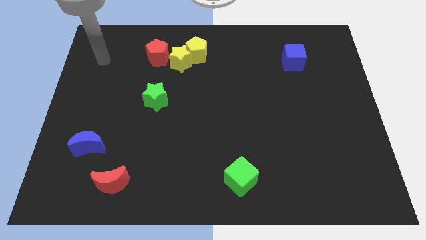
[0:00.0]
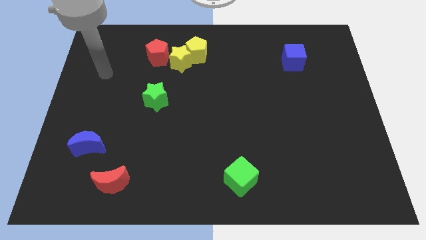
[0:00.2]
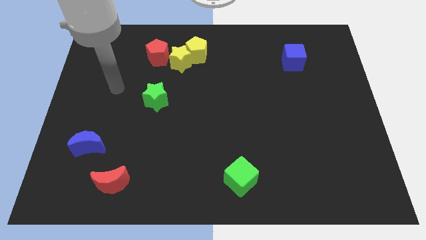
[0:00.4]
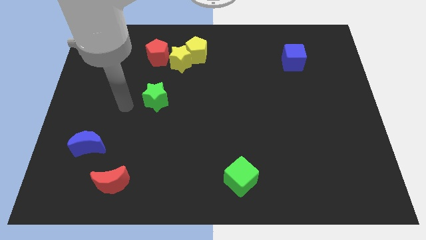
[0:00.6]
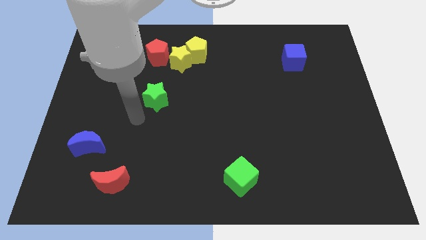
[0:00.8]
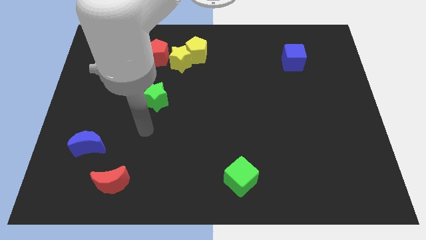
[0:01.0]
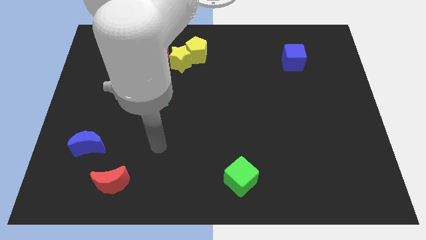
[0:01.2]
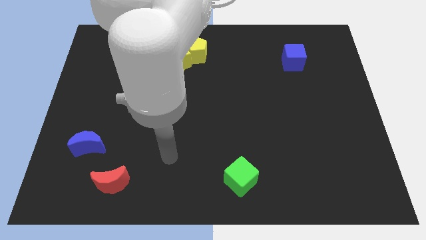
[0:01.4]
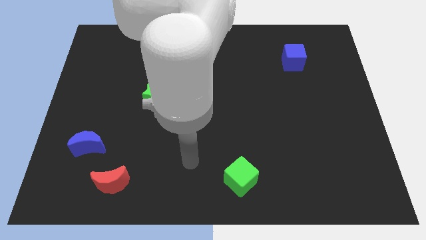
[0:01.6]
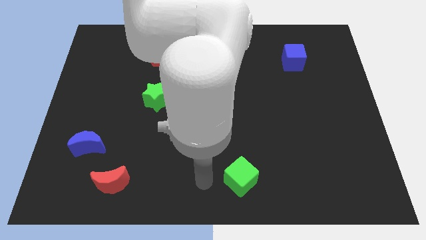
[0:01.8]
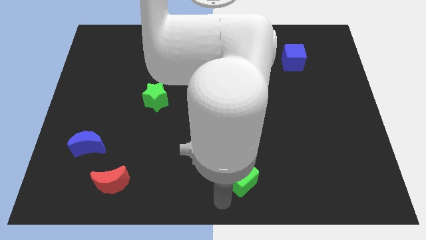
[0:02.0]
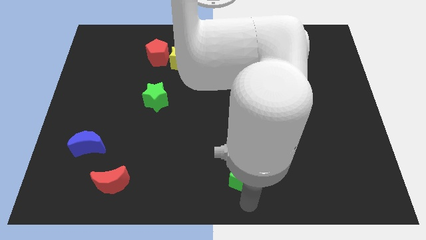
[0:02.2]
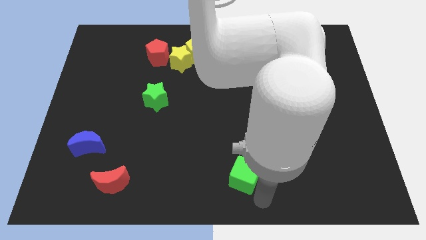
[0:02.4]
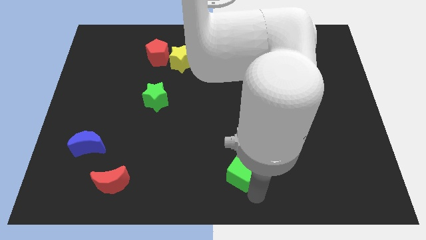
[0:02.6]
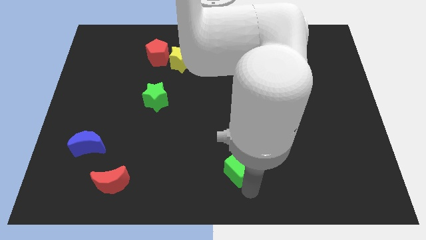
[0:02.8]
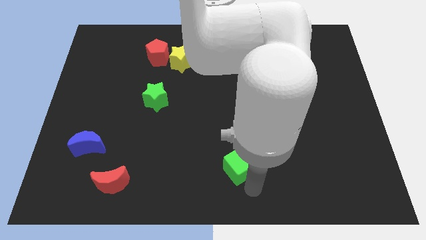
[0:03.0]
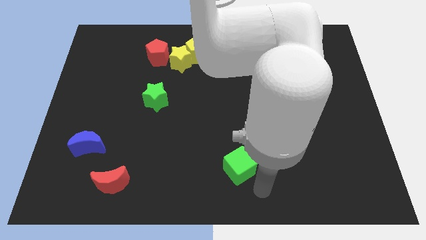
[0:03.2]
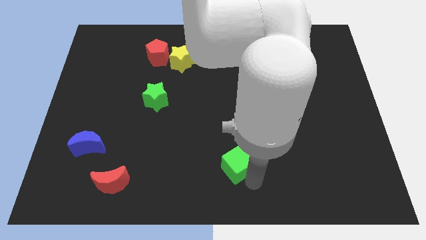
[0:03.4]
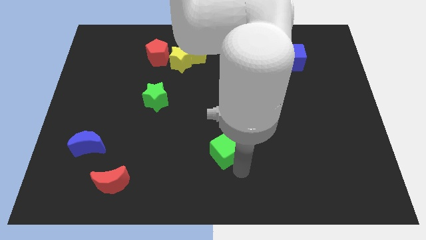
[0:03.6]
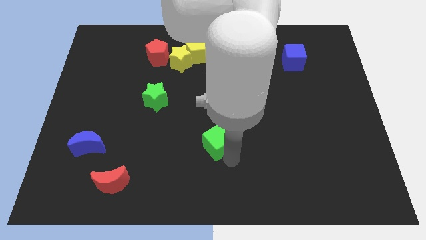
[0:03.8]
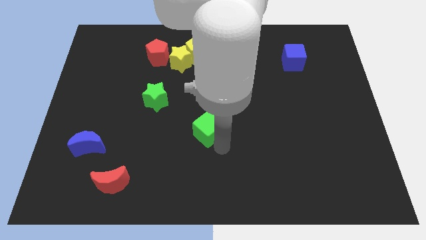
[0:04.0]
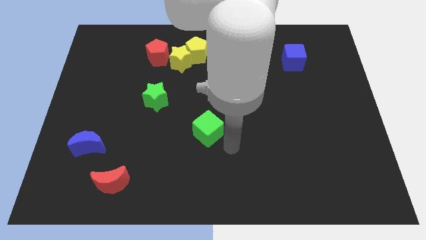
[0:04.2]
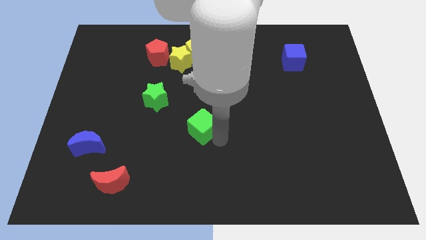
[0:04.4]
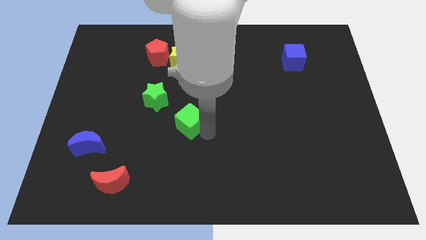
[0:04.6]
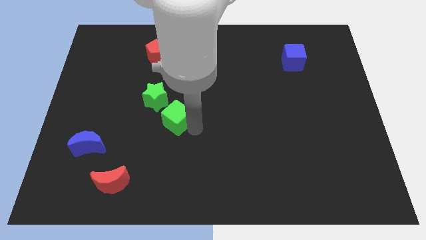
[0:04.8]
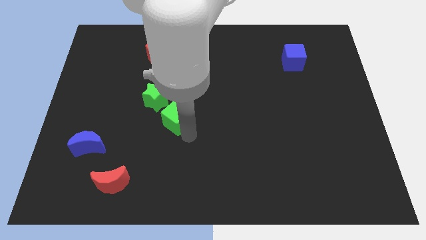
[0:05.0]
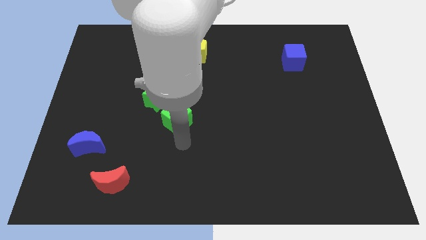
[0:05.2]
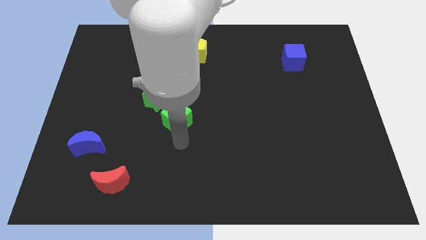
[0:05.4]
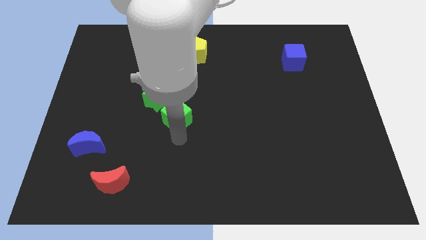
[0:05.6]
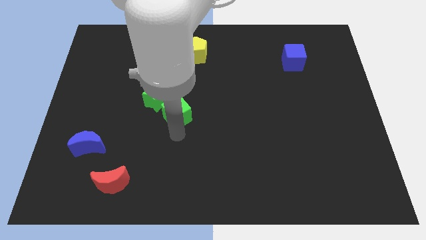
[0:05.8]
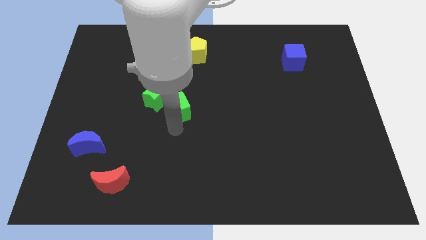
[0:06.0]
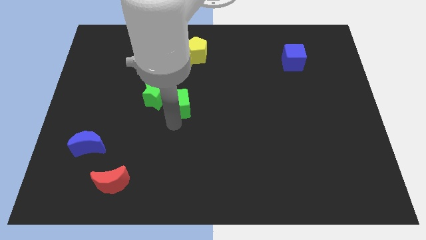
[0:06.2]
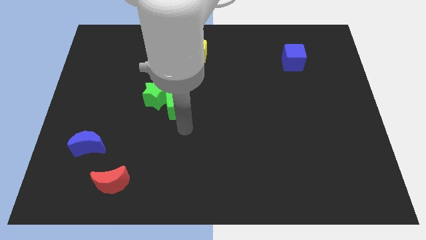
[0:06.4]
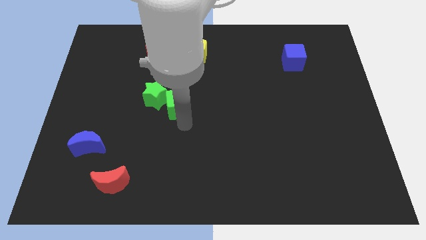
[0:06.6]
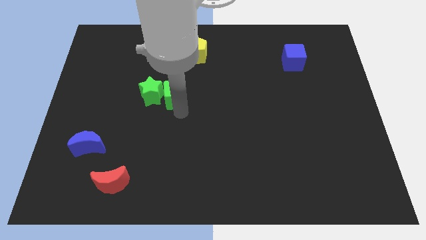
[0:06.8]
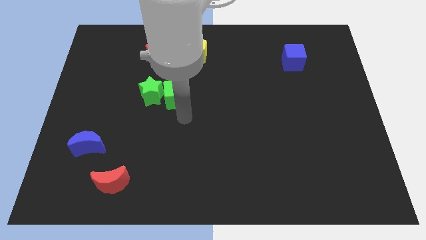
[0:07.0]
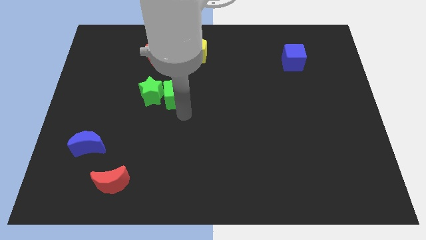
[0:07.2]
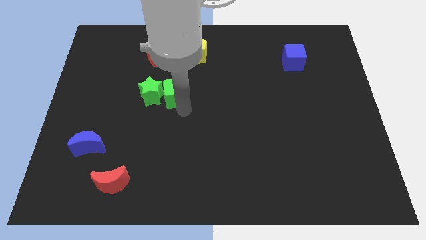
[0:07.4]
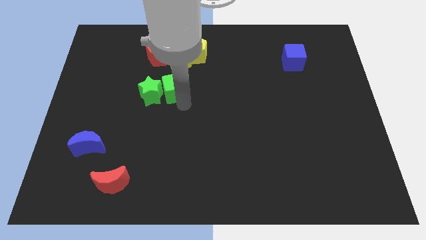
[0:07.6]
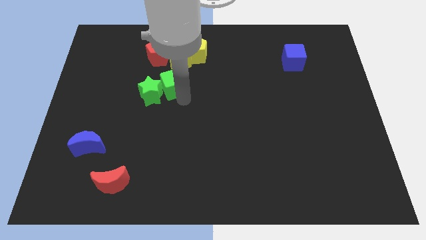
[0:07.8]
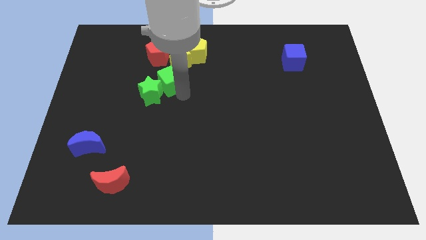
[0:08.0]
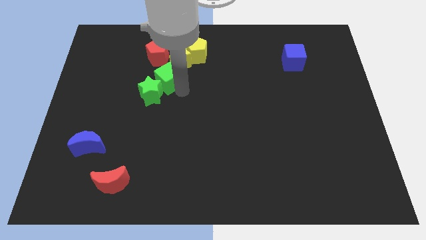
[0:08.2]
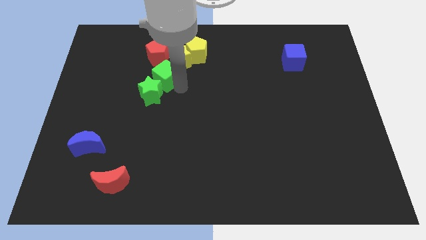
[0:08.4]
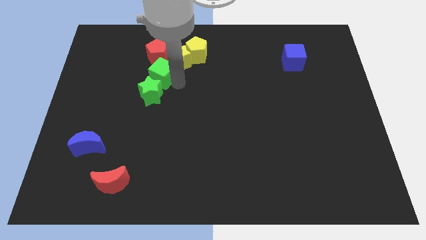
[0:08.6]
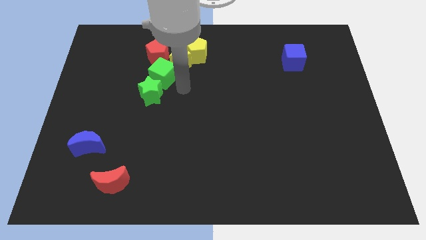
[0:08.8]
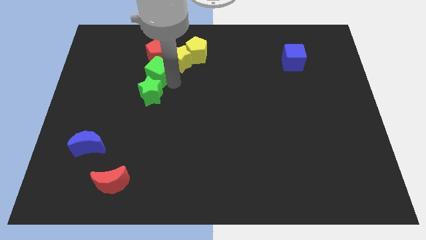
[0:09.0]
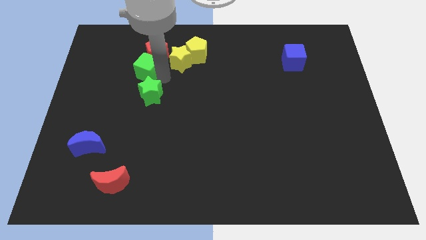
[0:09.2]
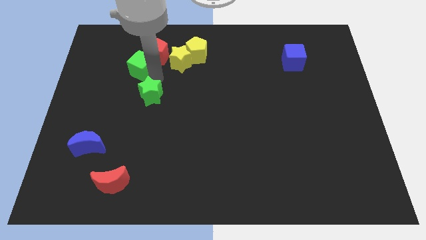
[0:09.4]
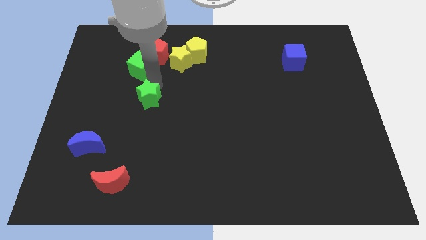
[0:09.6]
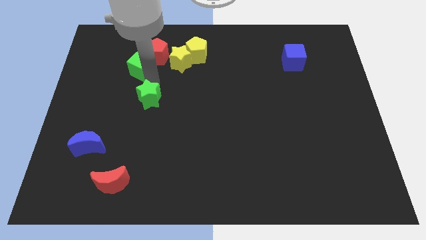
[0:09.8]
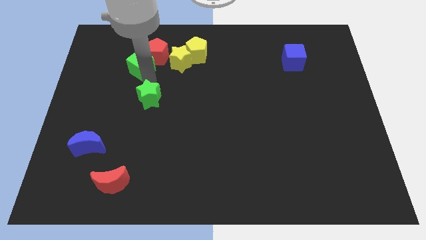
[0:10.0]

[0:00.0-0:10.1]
push the green cube to the left side of the red pentagon

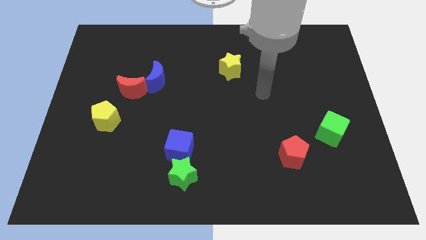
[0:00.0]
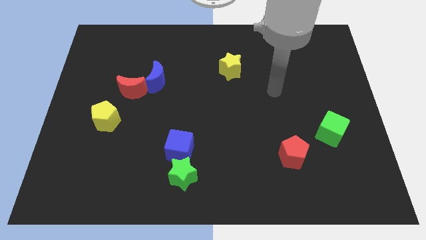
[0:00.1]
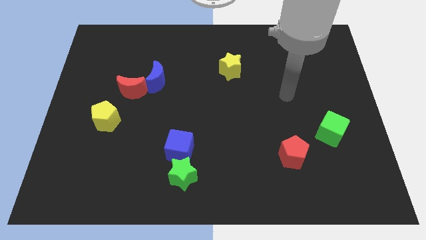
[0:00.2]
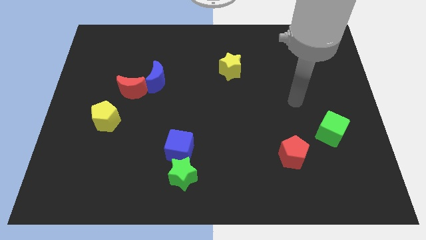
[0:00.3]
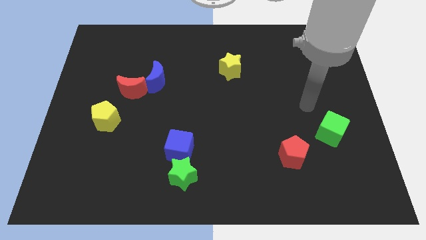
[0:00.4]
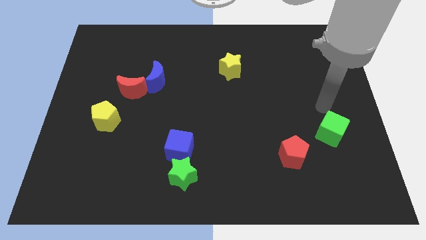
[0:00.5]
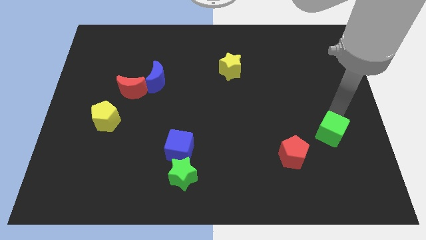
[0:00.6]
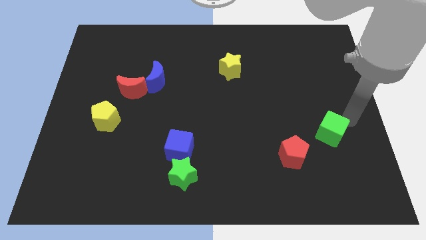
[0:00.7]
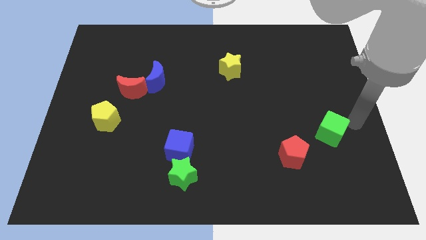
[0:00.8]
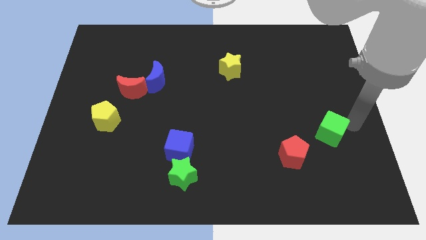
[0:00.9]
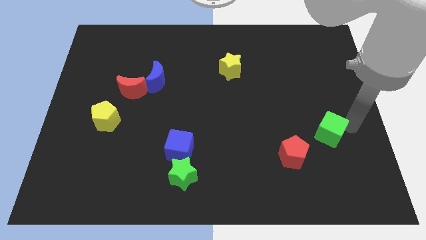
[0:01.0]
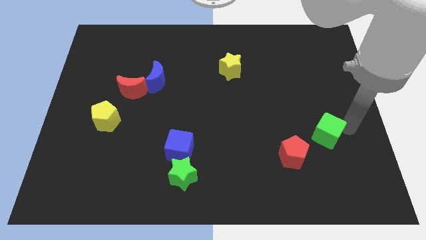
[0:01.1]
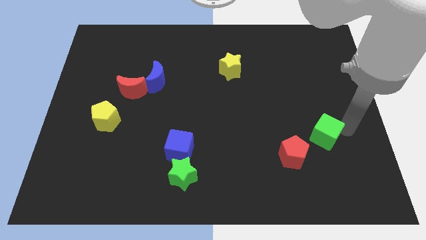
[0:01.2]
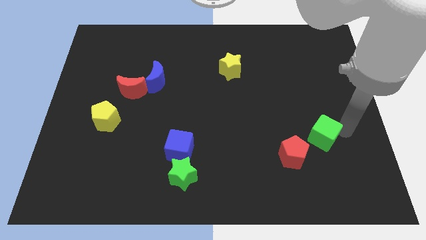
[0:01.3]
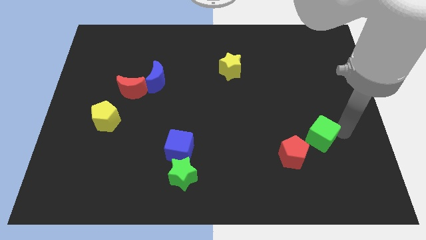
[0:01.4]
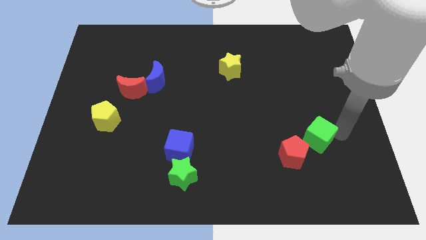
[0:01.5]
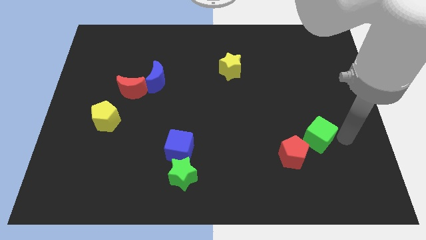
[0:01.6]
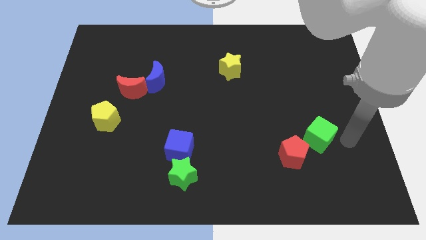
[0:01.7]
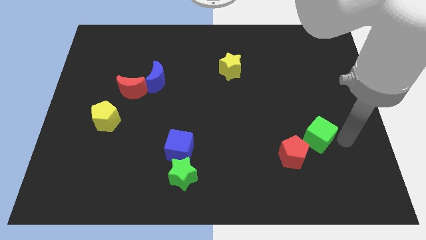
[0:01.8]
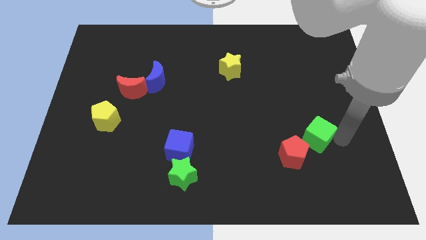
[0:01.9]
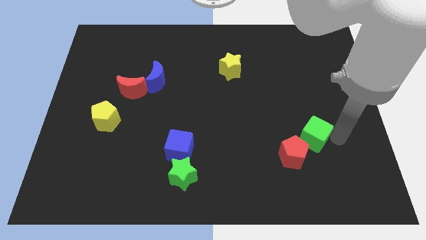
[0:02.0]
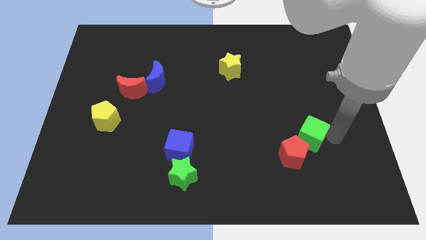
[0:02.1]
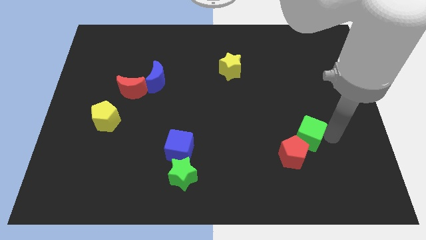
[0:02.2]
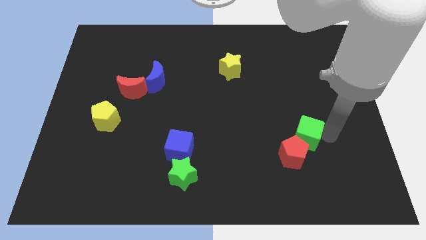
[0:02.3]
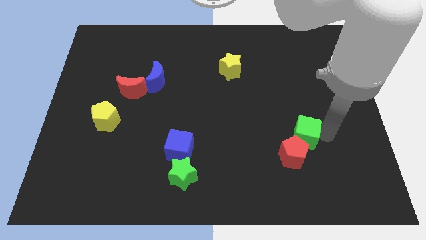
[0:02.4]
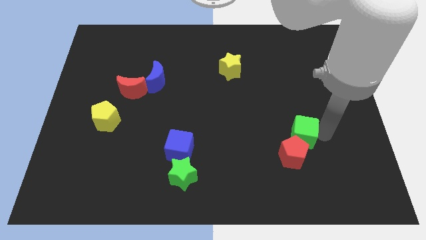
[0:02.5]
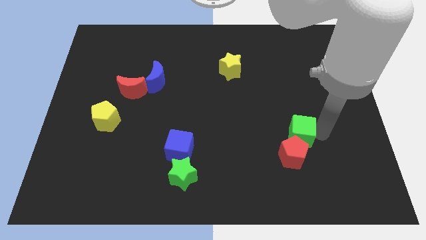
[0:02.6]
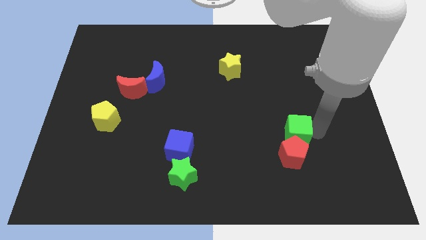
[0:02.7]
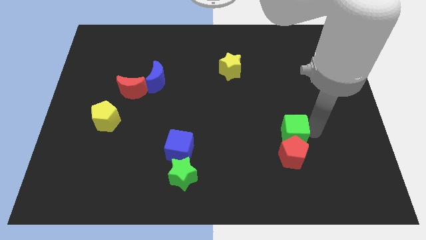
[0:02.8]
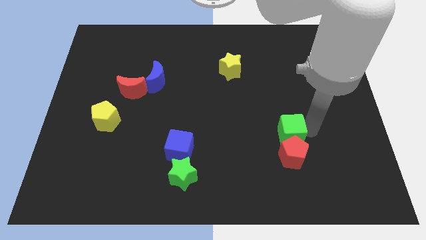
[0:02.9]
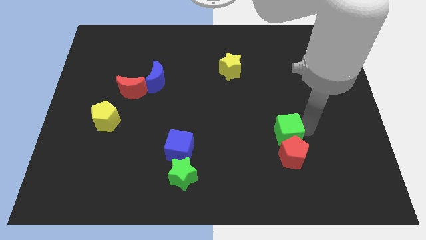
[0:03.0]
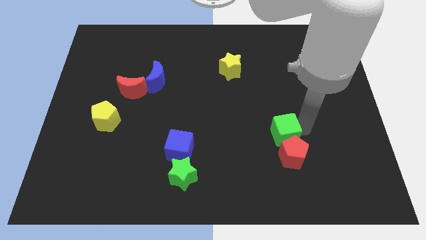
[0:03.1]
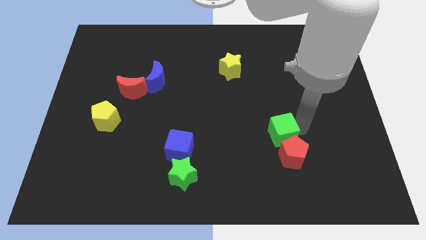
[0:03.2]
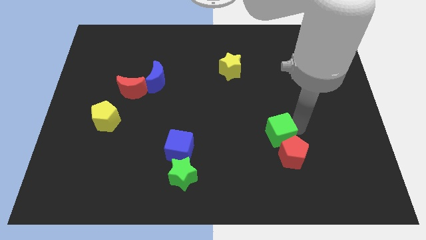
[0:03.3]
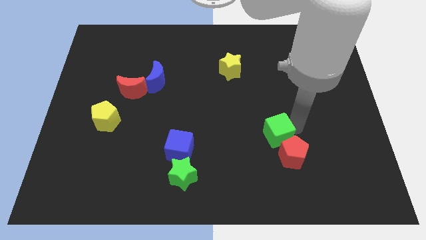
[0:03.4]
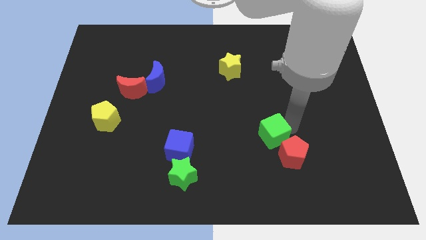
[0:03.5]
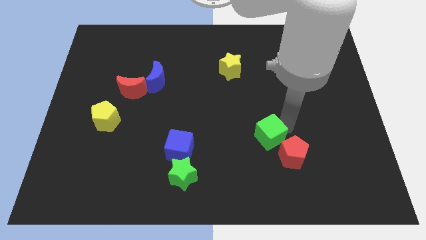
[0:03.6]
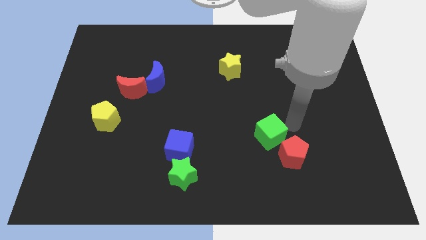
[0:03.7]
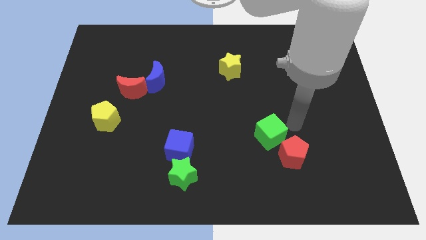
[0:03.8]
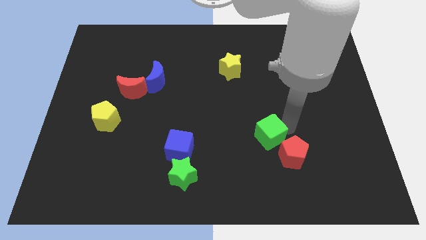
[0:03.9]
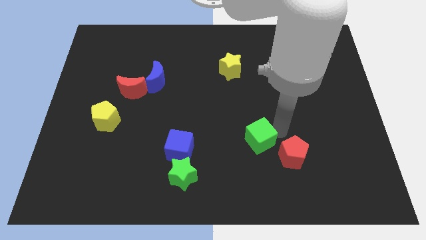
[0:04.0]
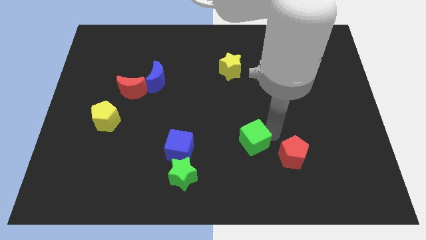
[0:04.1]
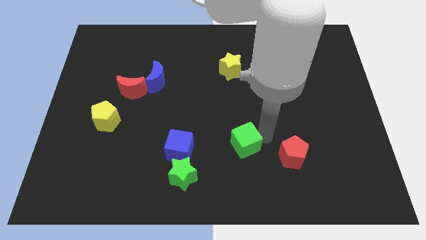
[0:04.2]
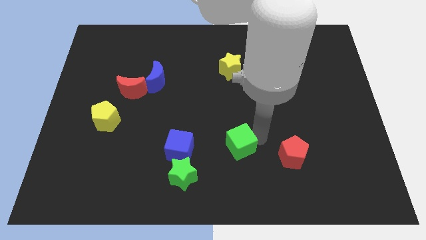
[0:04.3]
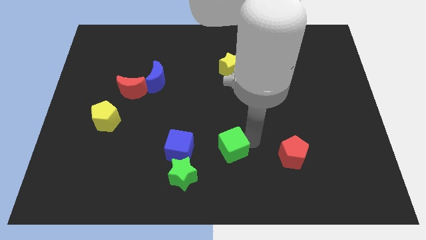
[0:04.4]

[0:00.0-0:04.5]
push the green cube to the top right side of the green star
